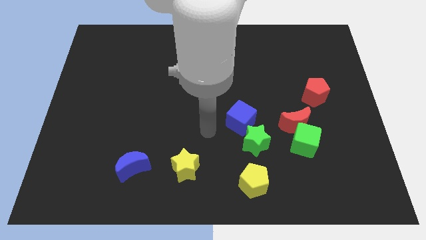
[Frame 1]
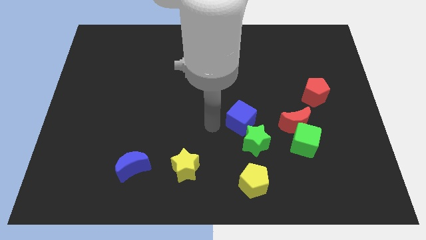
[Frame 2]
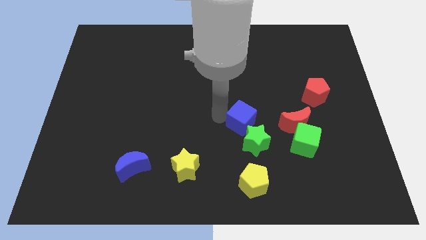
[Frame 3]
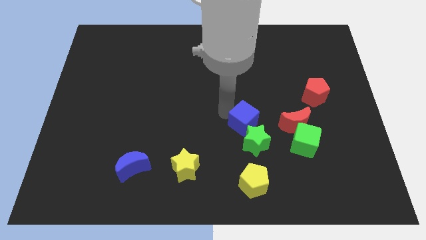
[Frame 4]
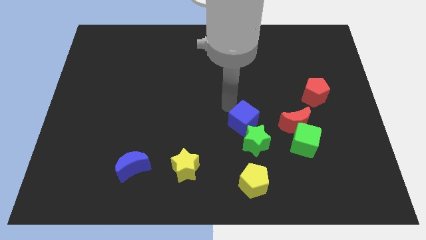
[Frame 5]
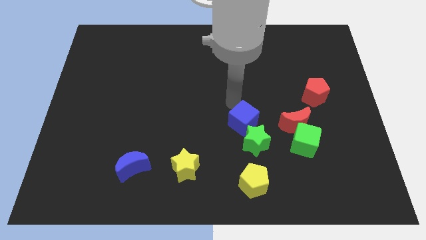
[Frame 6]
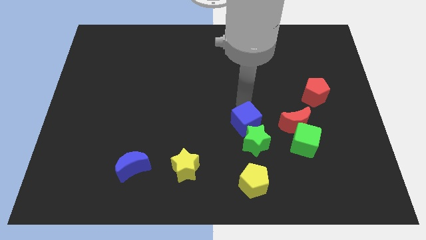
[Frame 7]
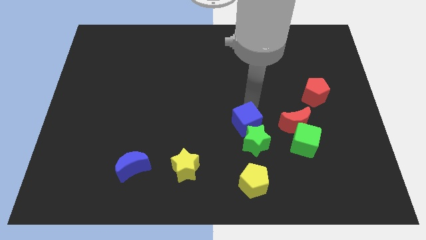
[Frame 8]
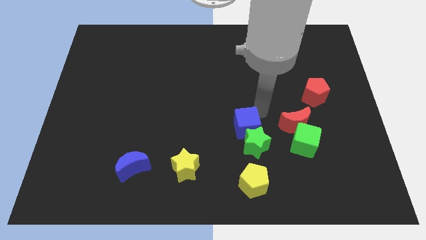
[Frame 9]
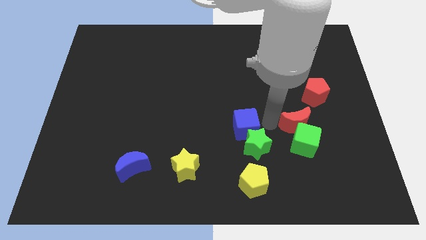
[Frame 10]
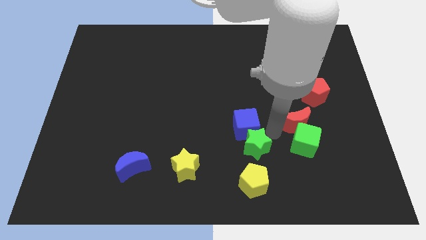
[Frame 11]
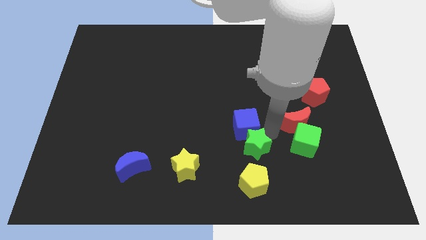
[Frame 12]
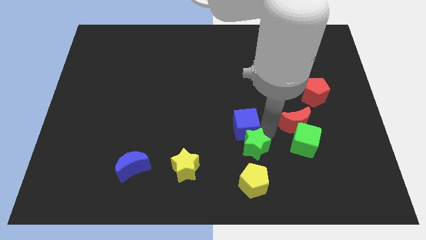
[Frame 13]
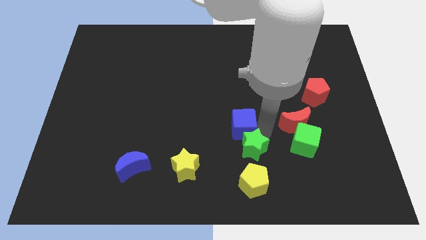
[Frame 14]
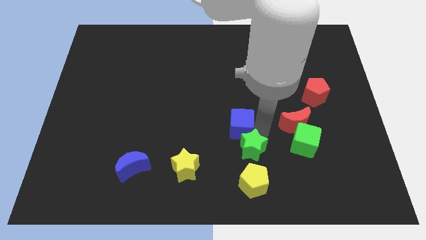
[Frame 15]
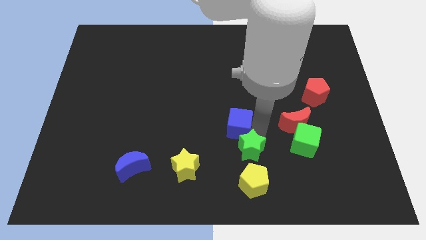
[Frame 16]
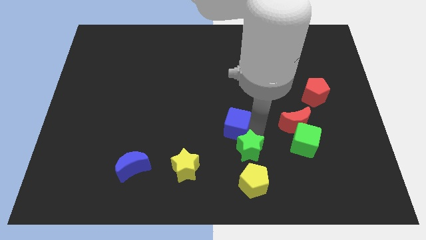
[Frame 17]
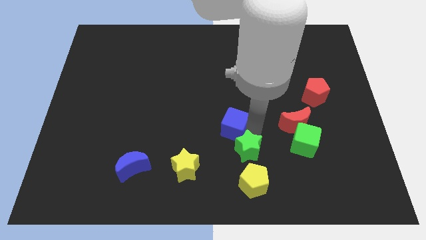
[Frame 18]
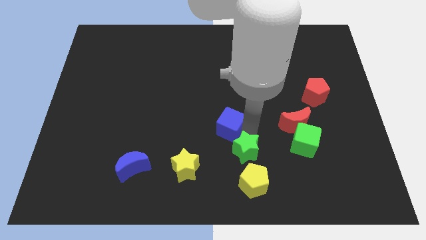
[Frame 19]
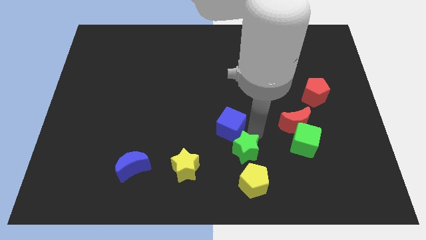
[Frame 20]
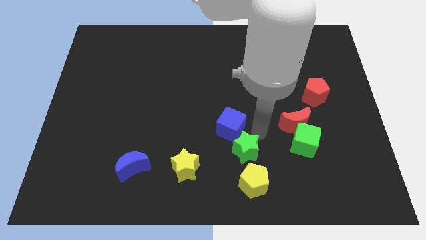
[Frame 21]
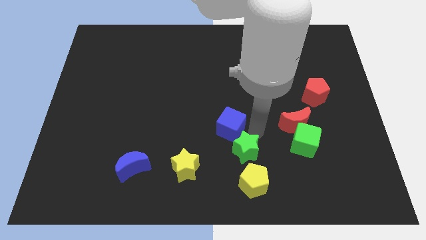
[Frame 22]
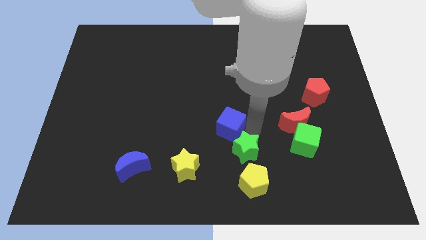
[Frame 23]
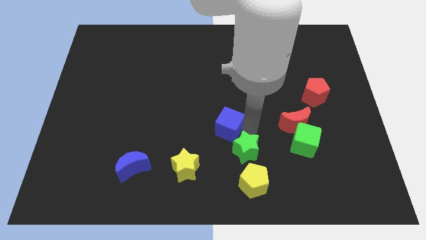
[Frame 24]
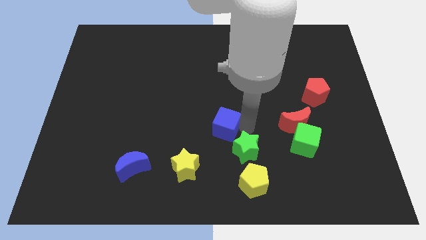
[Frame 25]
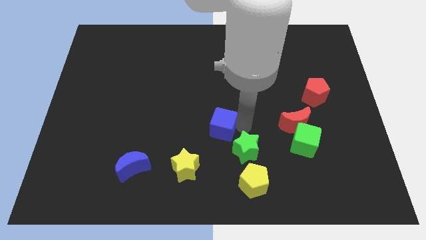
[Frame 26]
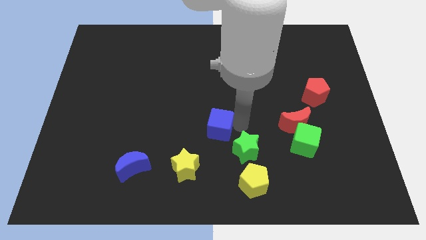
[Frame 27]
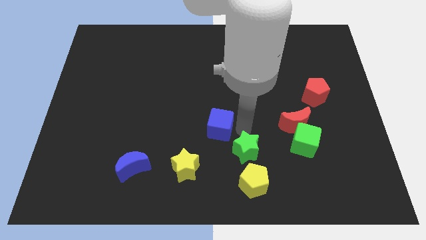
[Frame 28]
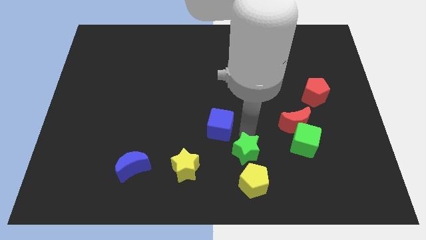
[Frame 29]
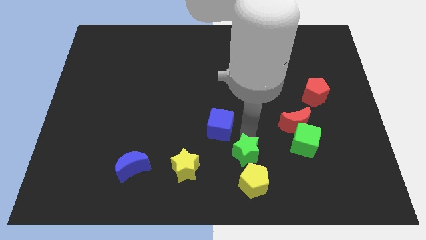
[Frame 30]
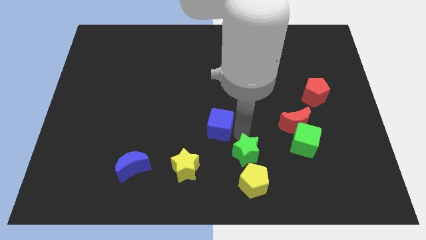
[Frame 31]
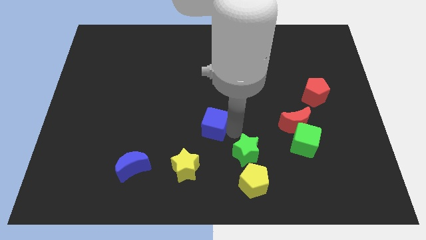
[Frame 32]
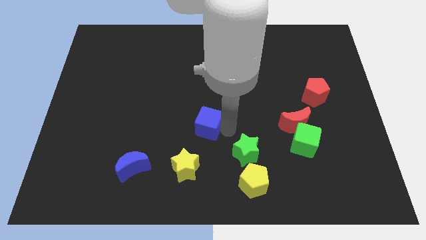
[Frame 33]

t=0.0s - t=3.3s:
slightly move the blue cube left

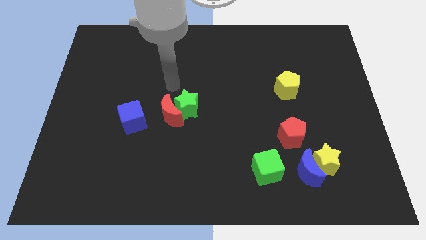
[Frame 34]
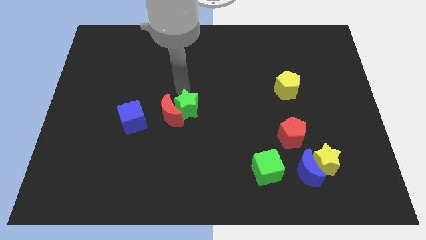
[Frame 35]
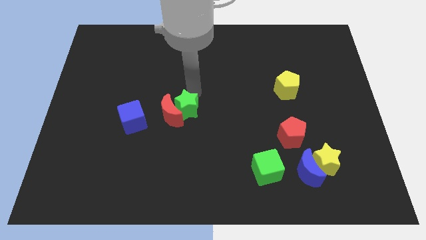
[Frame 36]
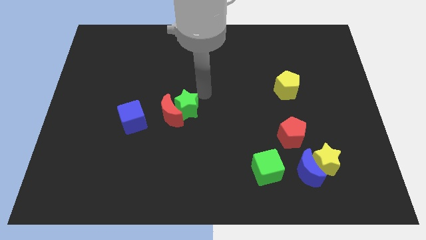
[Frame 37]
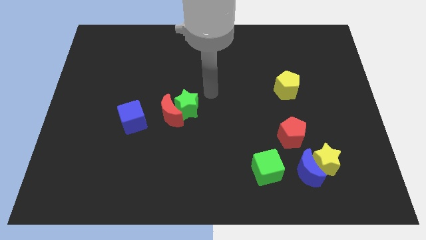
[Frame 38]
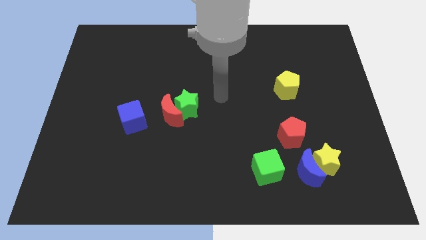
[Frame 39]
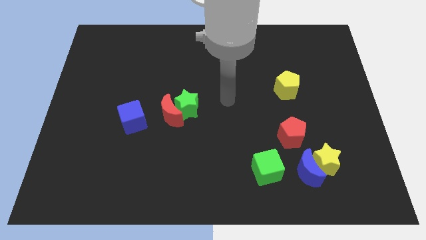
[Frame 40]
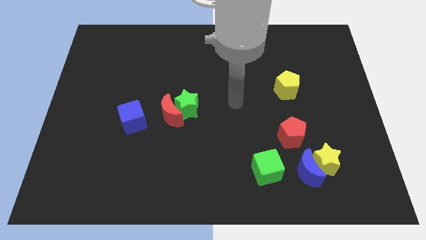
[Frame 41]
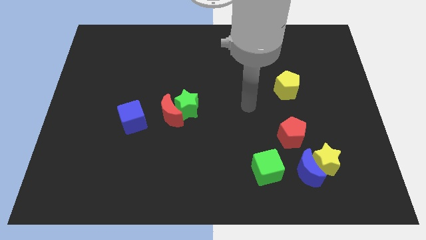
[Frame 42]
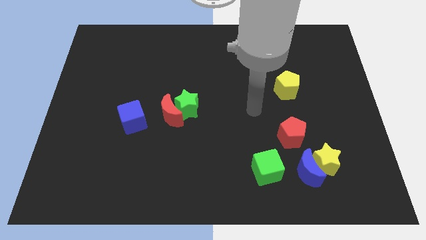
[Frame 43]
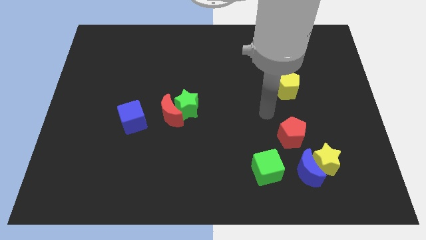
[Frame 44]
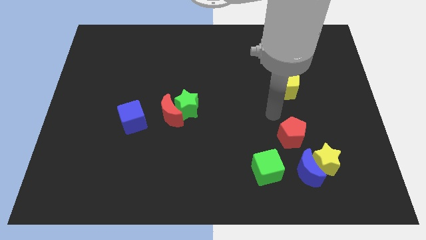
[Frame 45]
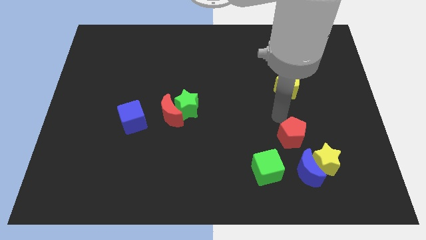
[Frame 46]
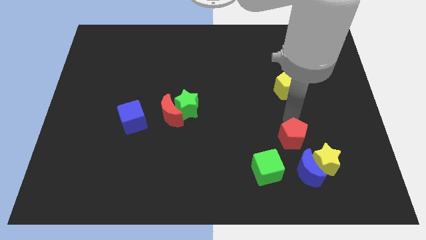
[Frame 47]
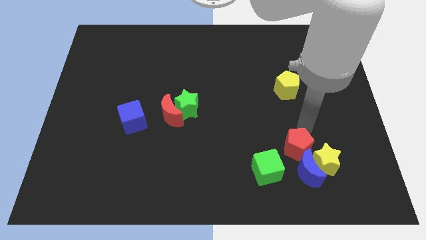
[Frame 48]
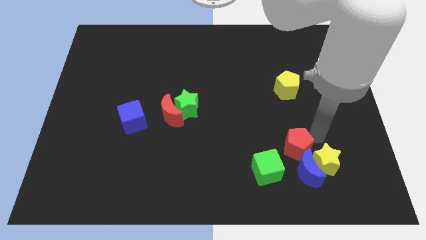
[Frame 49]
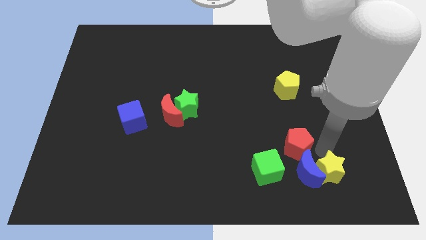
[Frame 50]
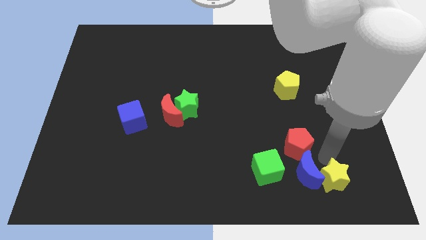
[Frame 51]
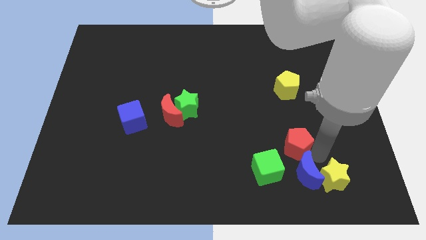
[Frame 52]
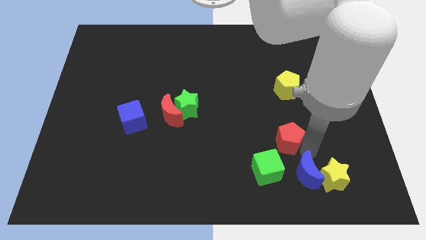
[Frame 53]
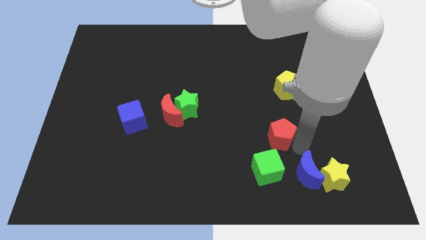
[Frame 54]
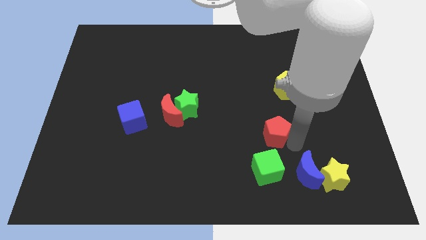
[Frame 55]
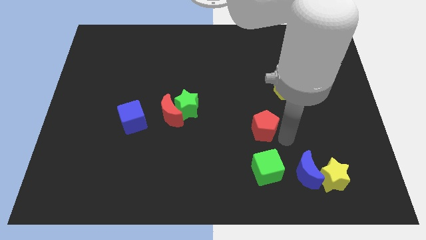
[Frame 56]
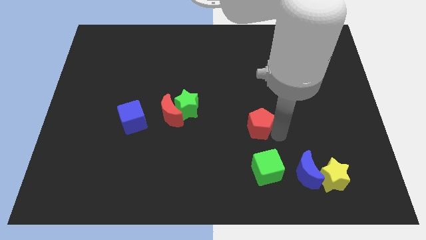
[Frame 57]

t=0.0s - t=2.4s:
slightly move the red pentagon left

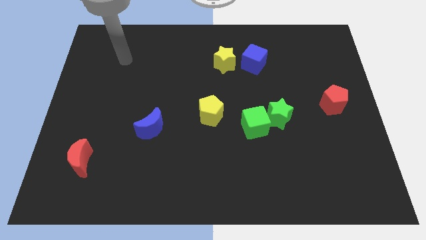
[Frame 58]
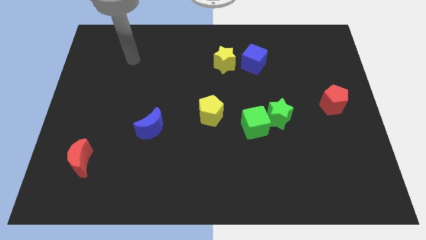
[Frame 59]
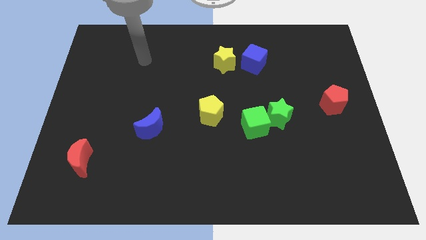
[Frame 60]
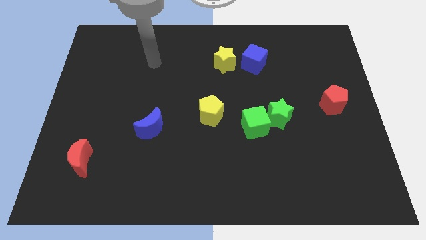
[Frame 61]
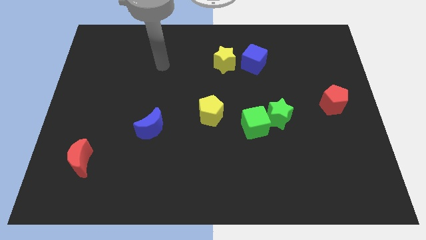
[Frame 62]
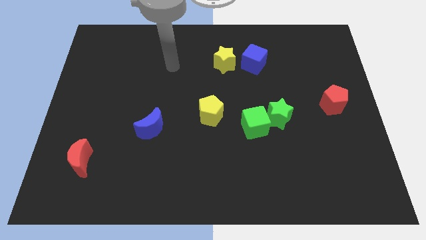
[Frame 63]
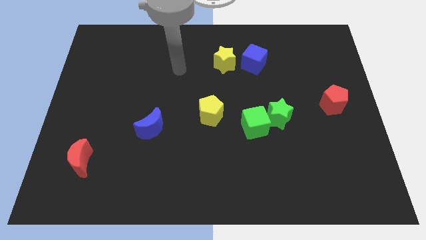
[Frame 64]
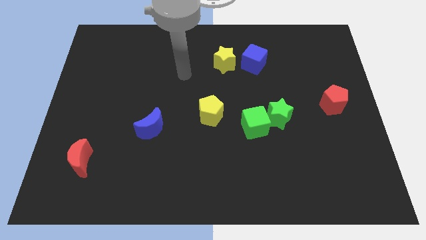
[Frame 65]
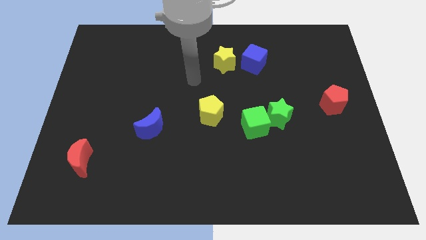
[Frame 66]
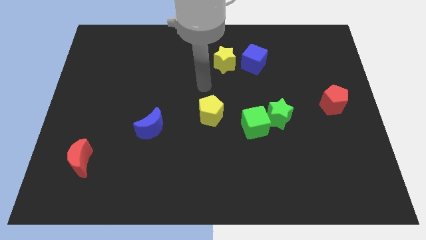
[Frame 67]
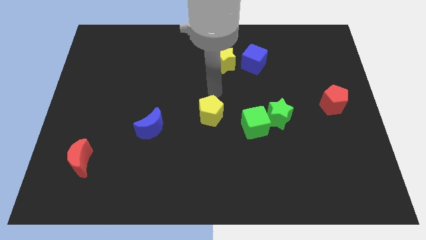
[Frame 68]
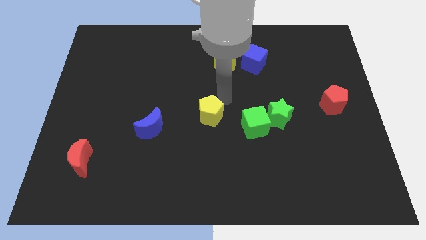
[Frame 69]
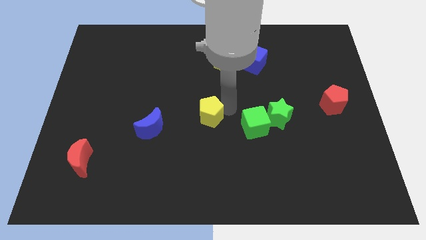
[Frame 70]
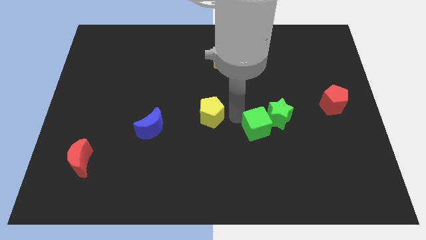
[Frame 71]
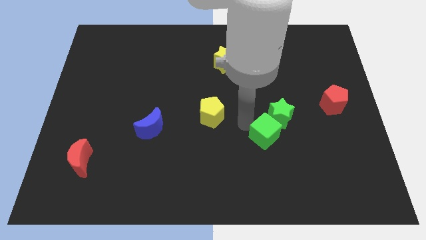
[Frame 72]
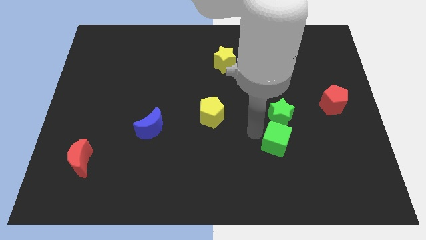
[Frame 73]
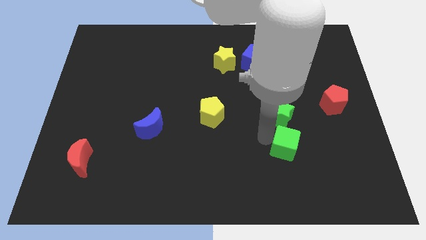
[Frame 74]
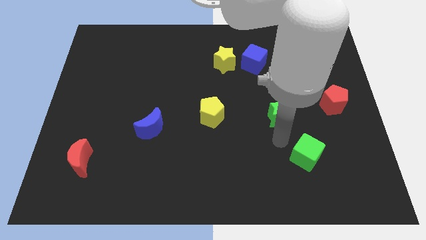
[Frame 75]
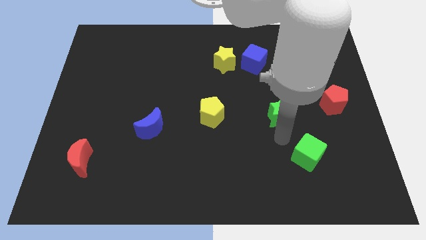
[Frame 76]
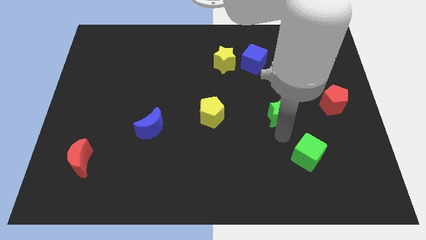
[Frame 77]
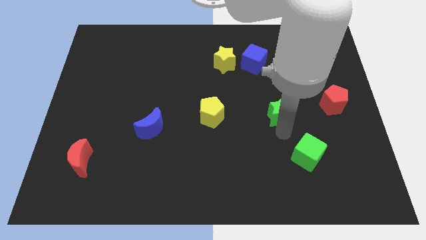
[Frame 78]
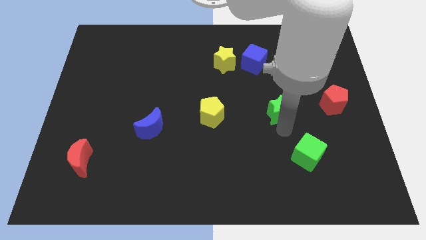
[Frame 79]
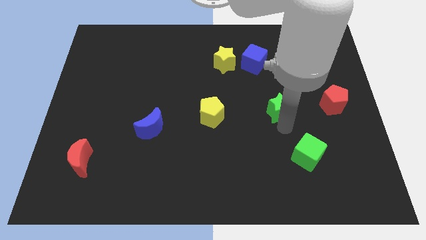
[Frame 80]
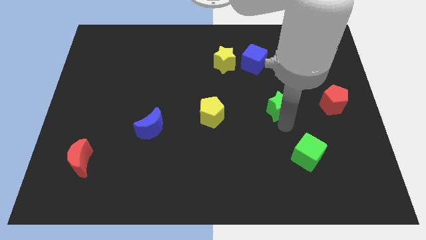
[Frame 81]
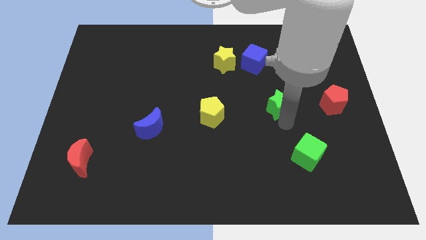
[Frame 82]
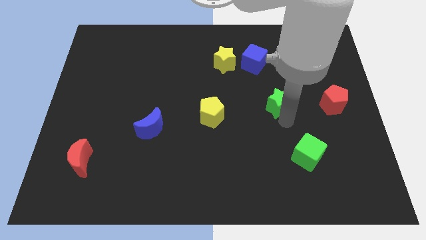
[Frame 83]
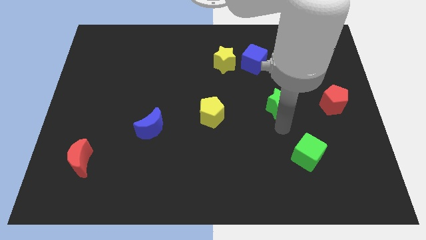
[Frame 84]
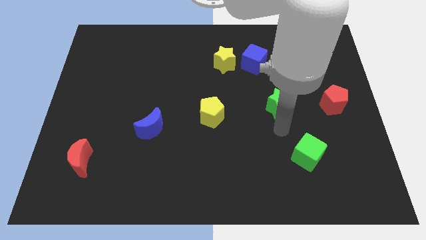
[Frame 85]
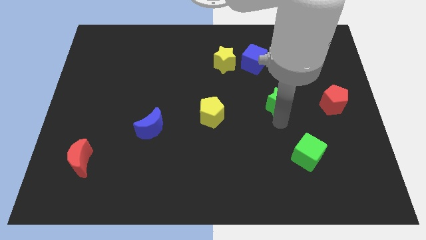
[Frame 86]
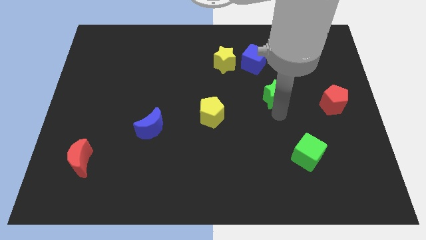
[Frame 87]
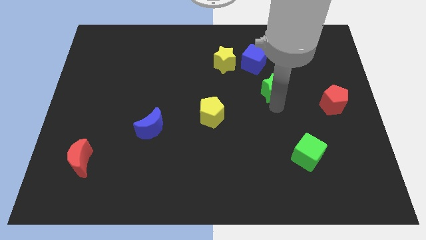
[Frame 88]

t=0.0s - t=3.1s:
slide the green star somewhat upwards
